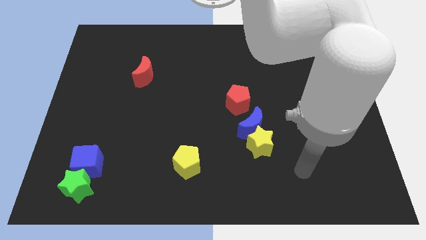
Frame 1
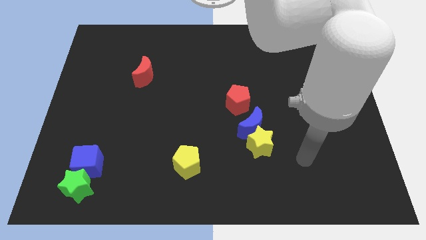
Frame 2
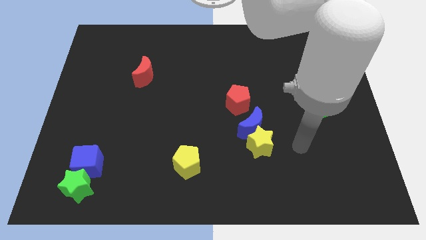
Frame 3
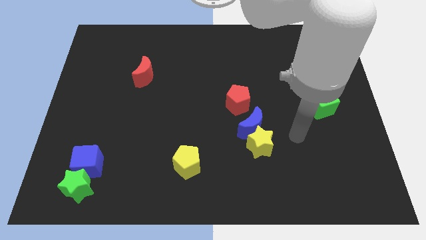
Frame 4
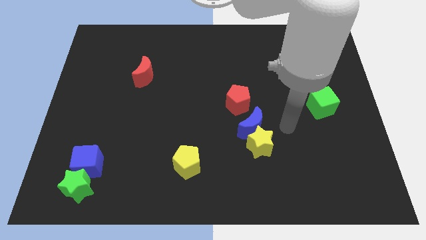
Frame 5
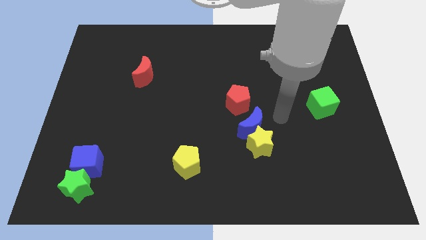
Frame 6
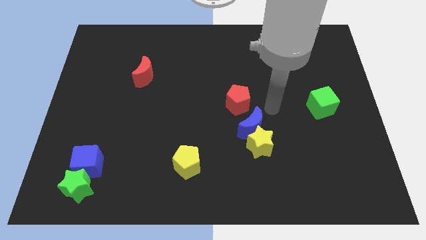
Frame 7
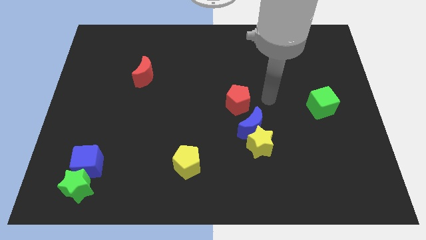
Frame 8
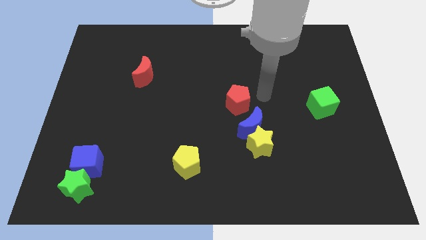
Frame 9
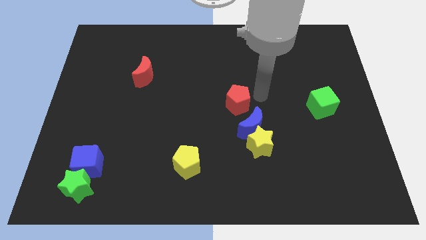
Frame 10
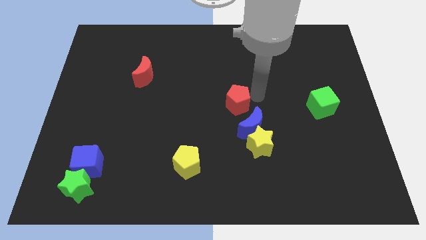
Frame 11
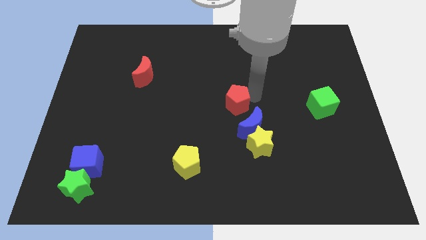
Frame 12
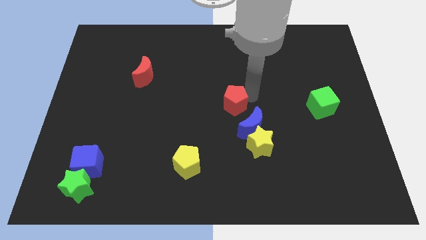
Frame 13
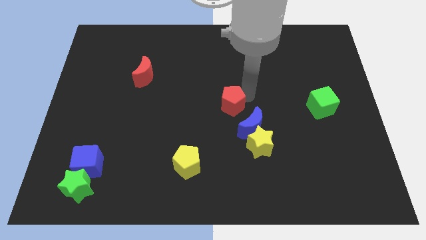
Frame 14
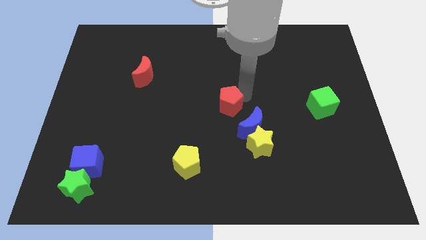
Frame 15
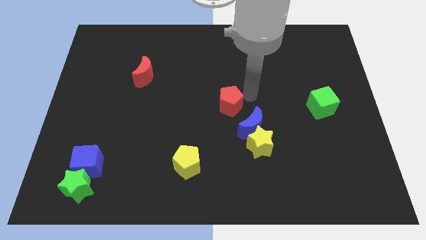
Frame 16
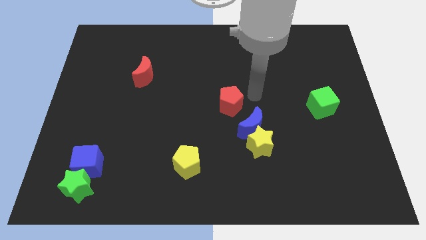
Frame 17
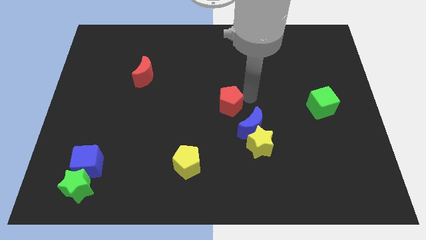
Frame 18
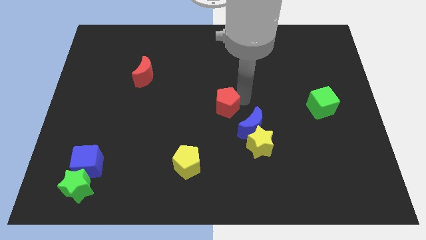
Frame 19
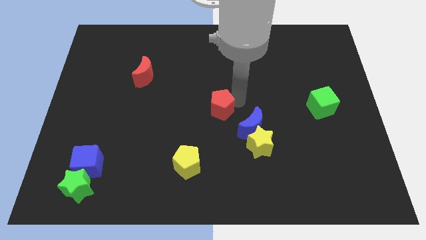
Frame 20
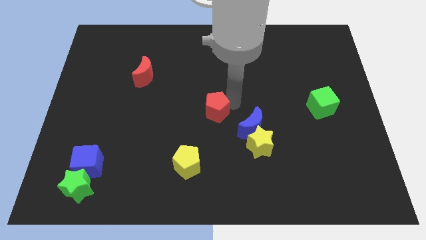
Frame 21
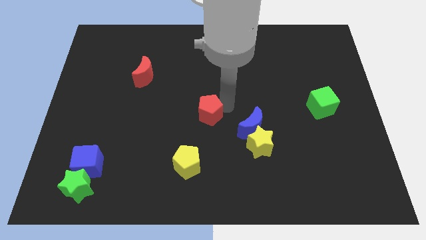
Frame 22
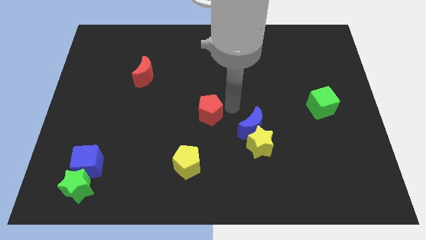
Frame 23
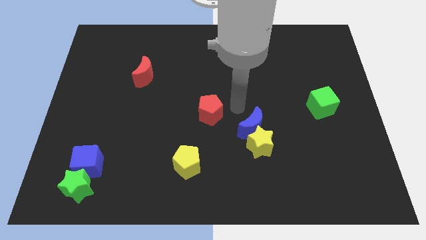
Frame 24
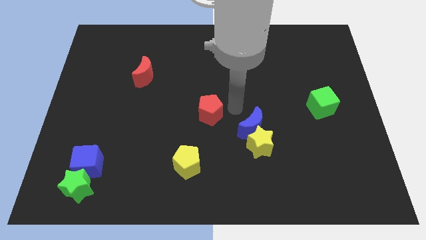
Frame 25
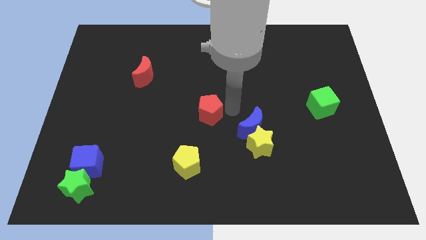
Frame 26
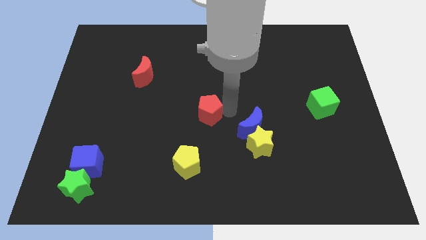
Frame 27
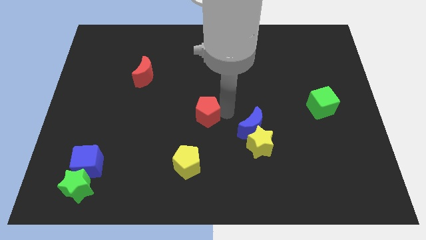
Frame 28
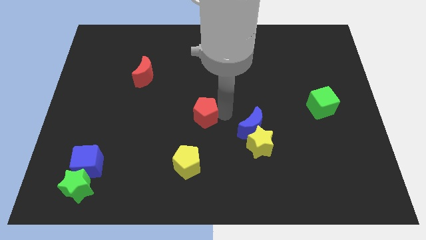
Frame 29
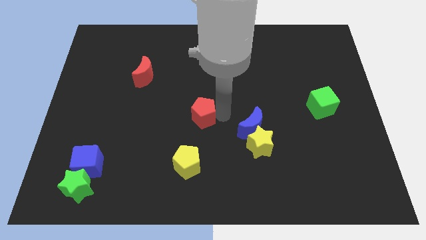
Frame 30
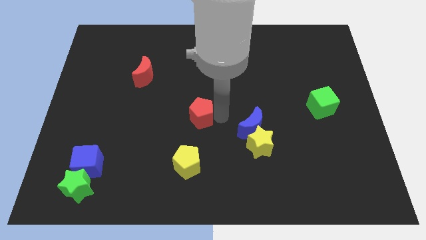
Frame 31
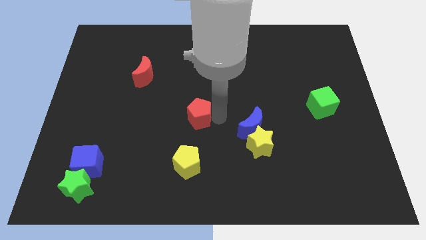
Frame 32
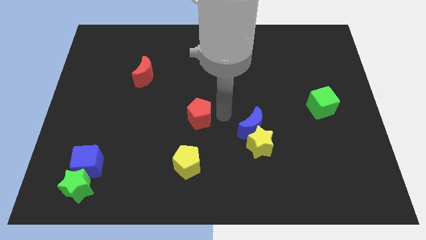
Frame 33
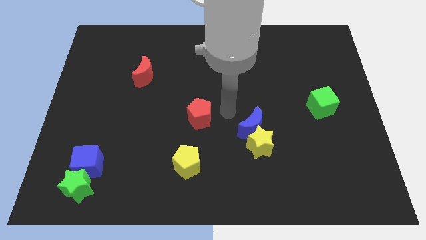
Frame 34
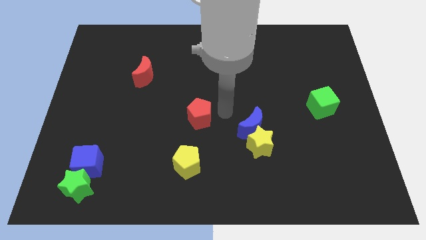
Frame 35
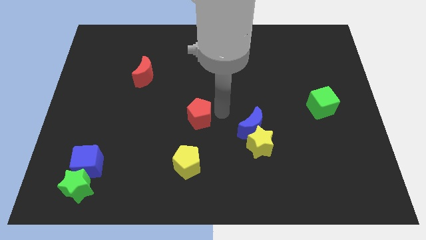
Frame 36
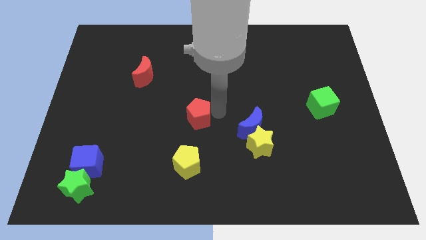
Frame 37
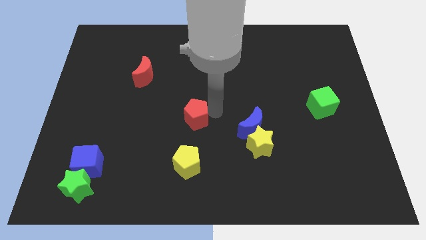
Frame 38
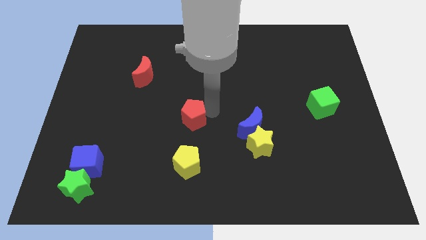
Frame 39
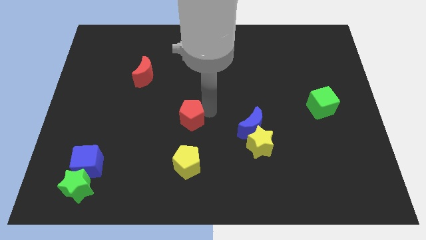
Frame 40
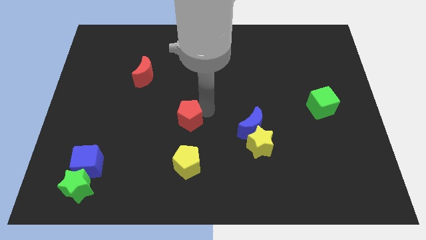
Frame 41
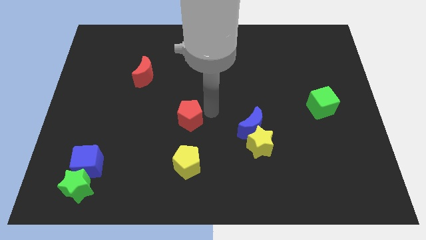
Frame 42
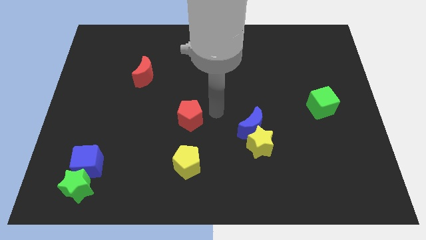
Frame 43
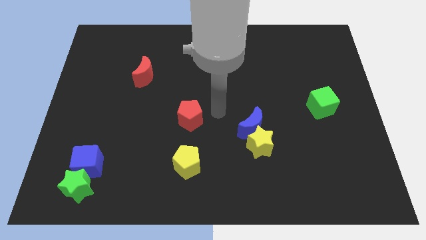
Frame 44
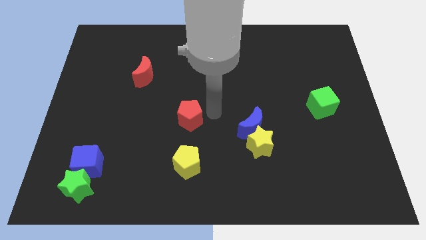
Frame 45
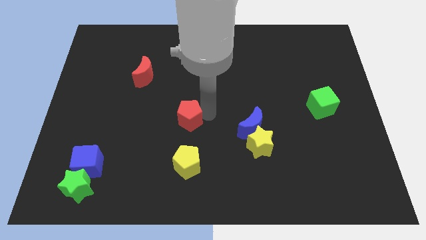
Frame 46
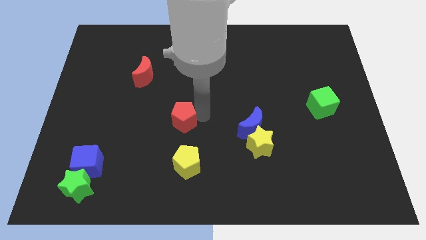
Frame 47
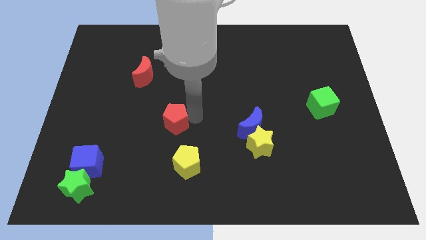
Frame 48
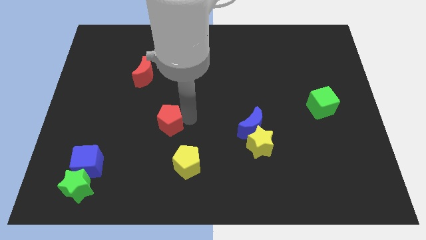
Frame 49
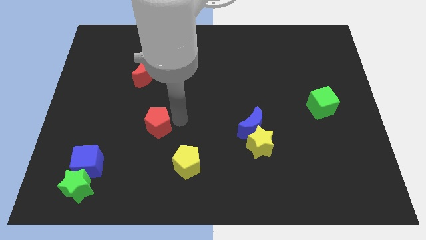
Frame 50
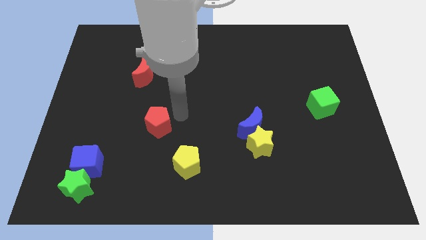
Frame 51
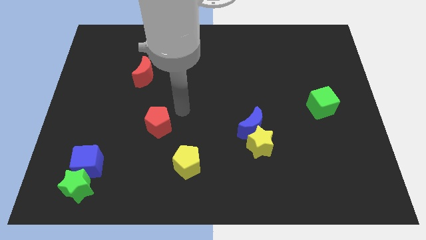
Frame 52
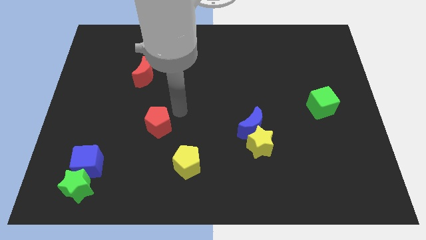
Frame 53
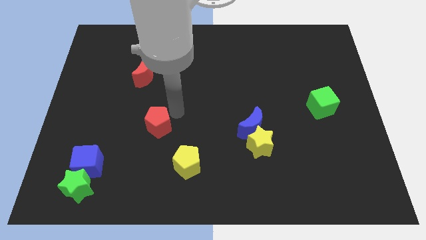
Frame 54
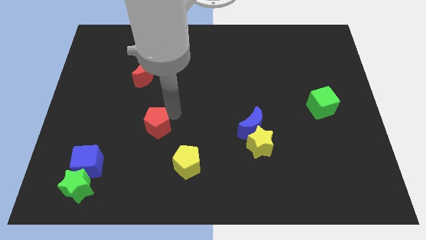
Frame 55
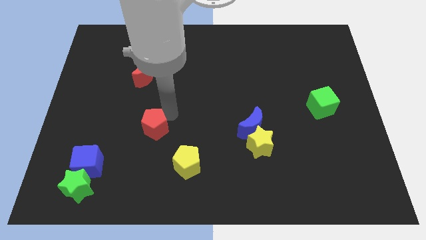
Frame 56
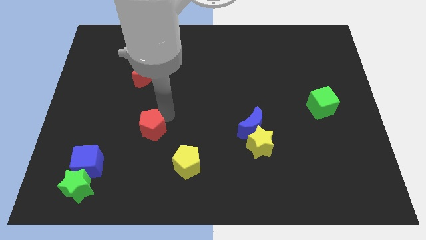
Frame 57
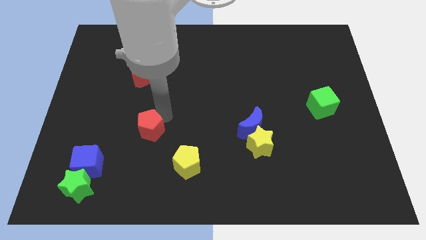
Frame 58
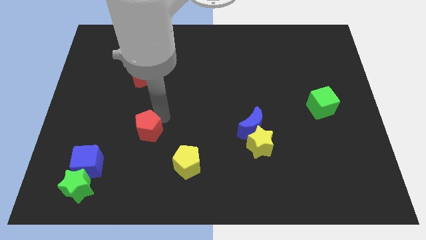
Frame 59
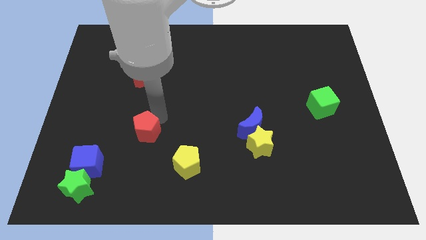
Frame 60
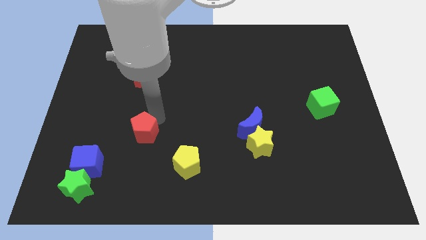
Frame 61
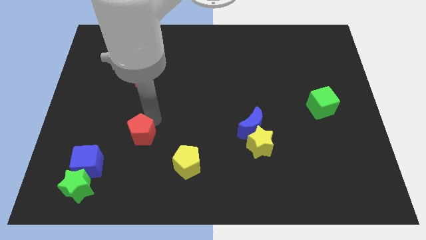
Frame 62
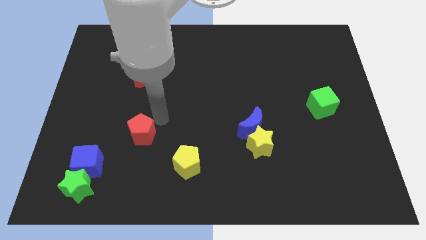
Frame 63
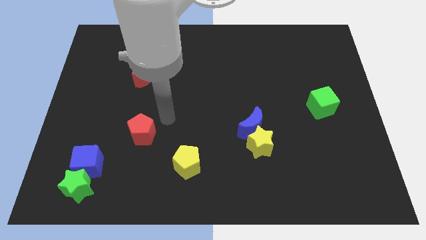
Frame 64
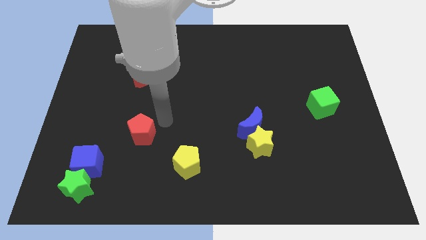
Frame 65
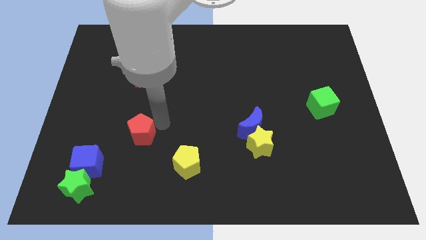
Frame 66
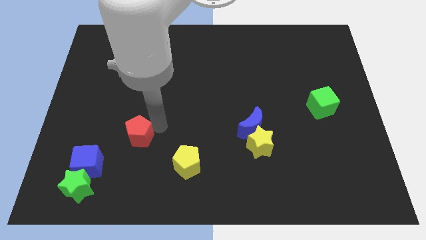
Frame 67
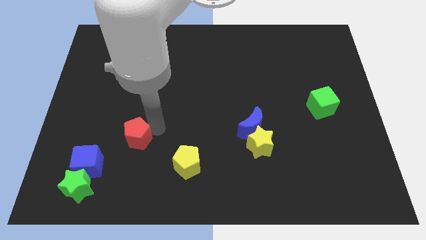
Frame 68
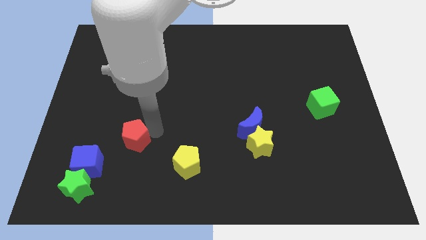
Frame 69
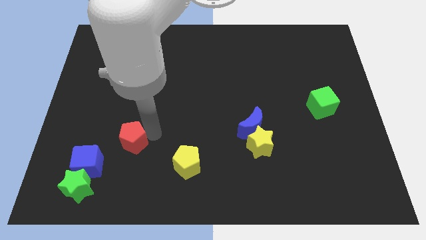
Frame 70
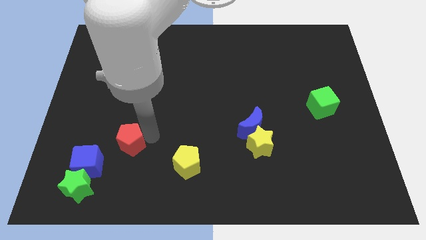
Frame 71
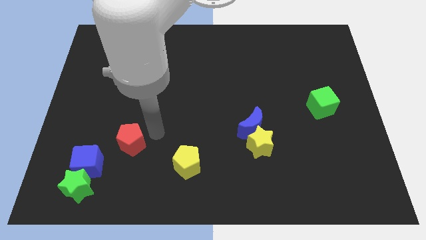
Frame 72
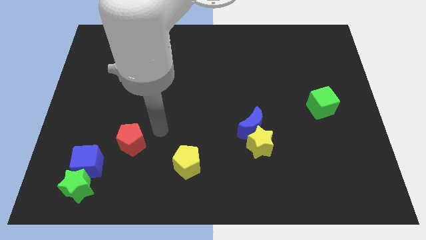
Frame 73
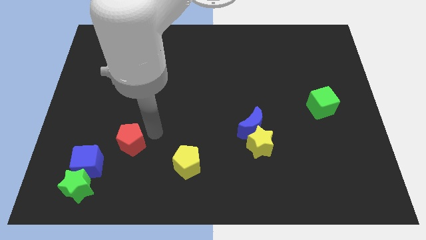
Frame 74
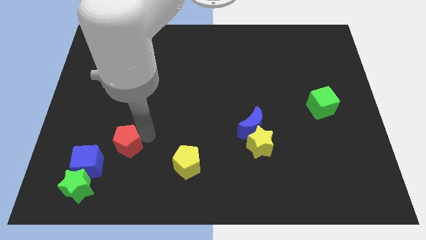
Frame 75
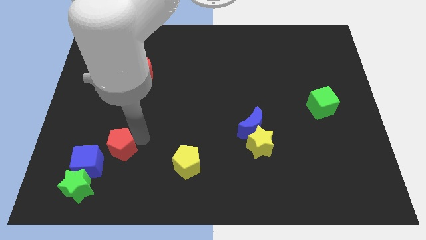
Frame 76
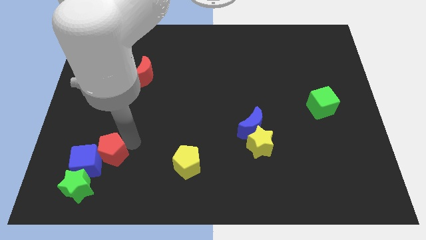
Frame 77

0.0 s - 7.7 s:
put the red pentagon towards the blue cube
